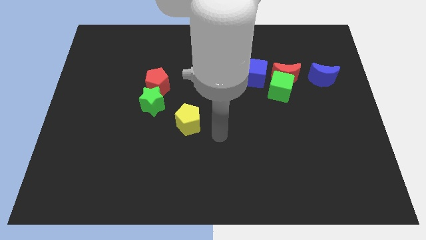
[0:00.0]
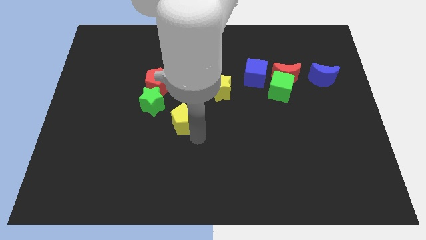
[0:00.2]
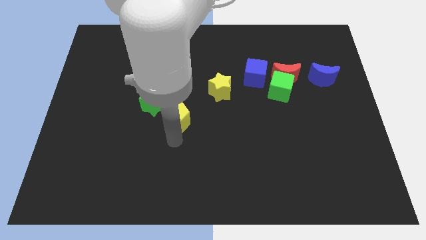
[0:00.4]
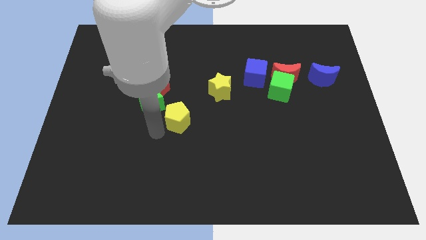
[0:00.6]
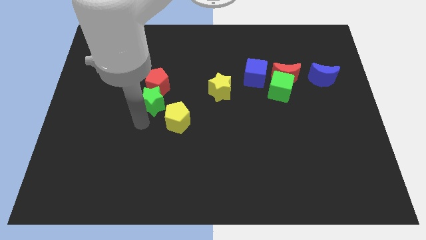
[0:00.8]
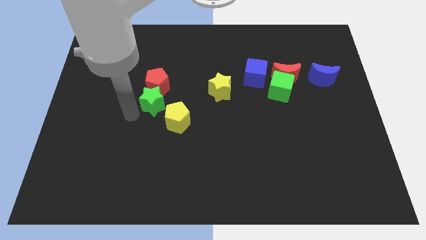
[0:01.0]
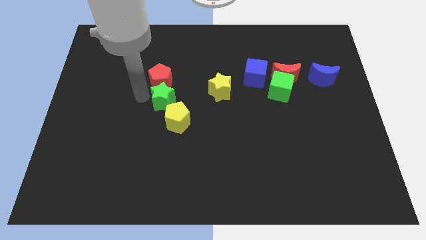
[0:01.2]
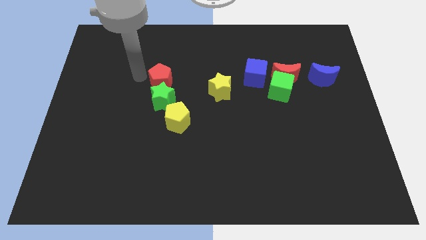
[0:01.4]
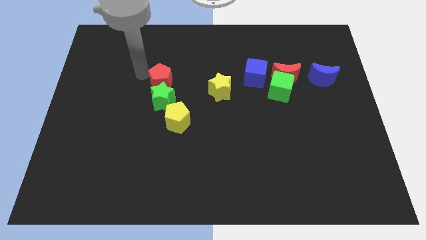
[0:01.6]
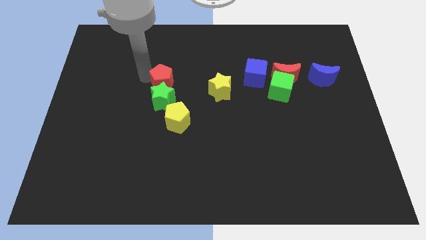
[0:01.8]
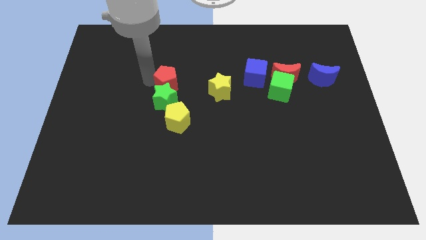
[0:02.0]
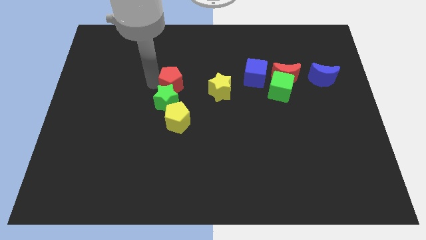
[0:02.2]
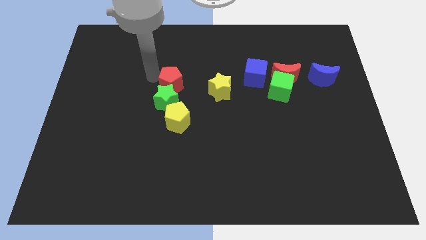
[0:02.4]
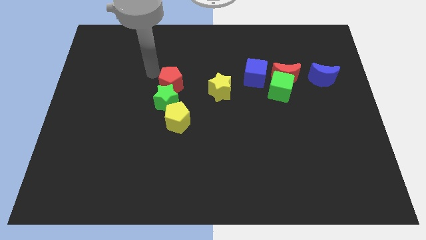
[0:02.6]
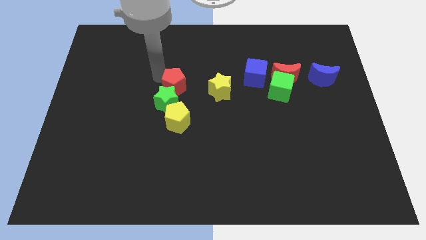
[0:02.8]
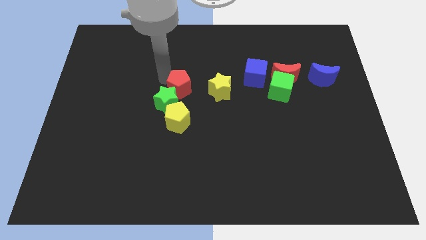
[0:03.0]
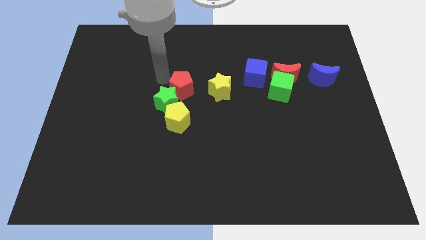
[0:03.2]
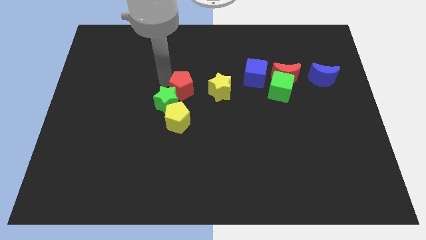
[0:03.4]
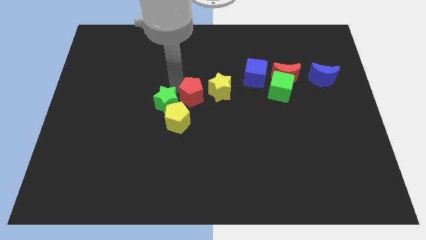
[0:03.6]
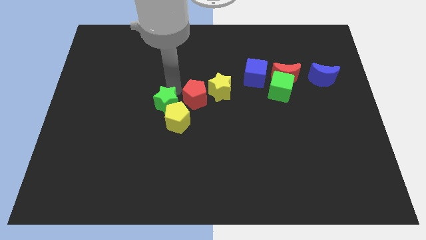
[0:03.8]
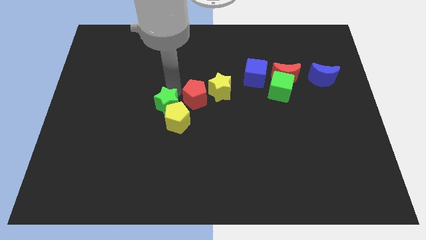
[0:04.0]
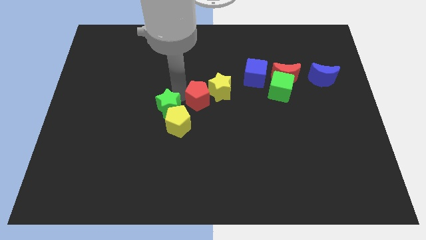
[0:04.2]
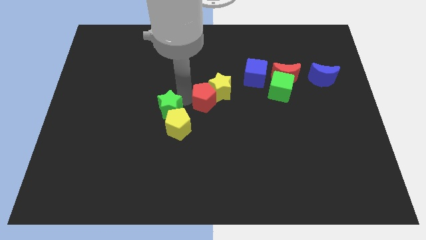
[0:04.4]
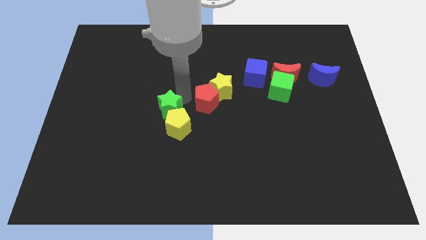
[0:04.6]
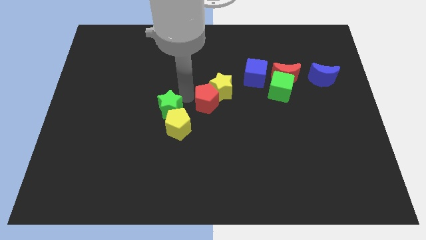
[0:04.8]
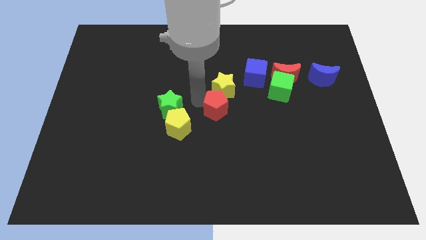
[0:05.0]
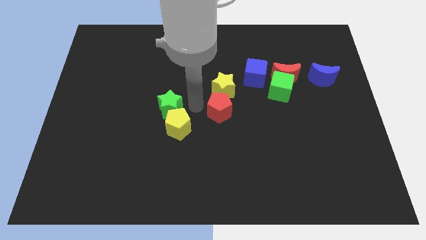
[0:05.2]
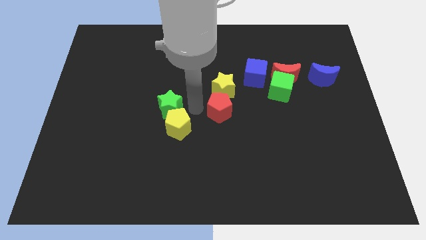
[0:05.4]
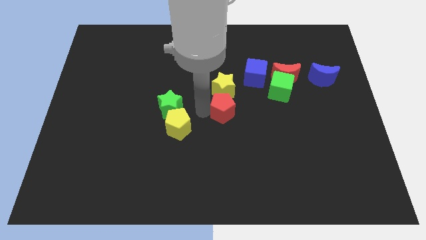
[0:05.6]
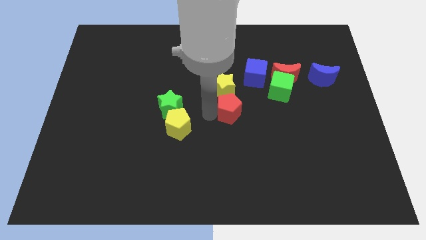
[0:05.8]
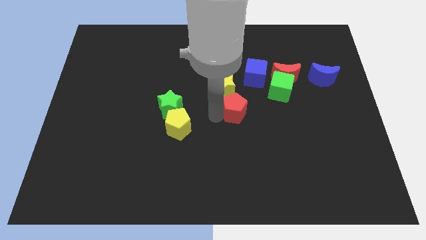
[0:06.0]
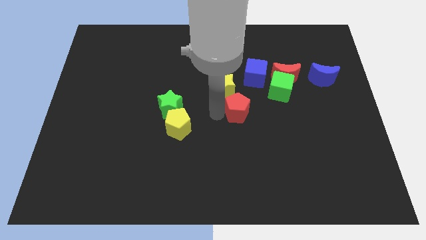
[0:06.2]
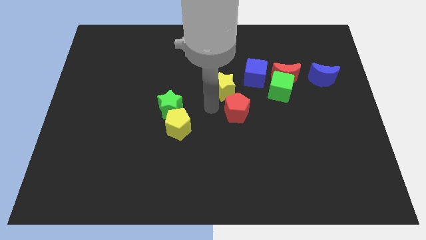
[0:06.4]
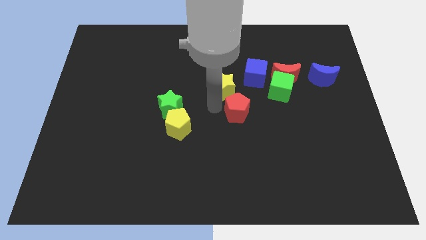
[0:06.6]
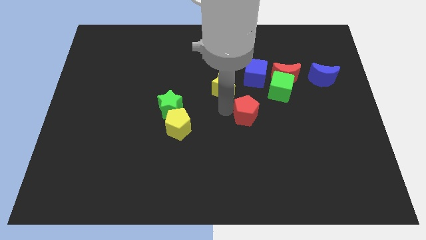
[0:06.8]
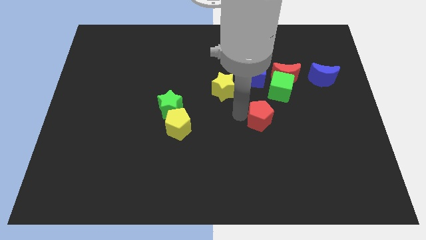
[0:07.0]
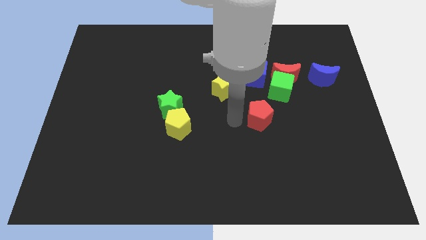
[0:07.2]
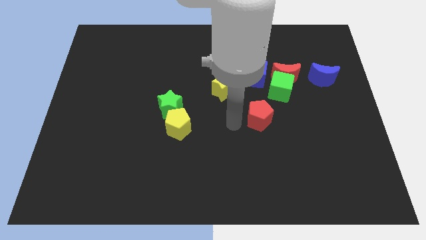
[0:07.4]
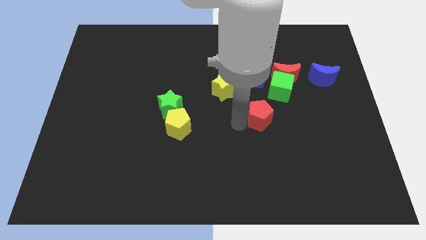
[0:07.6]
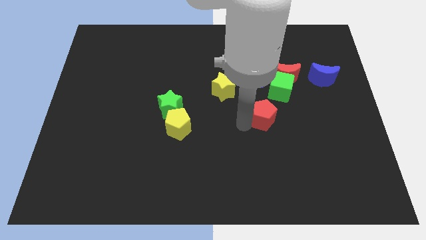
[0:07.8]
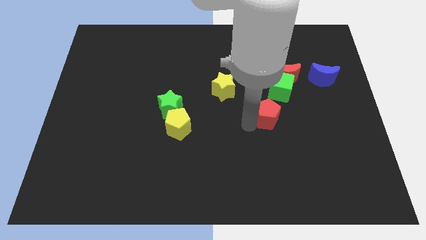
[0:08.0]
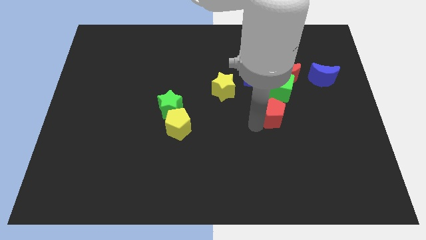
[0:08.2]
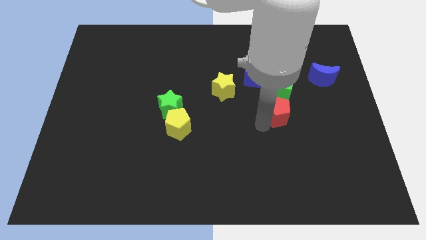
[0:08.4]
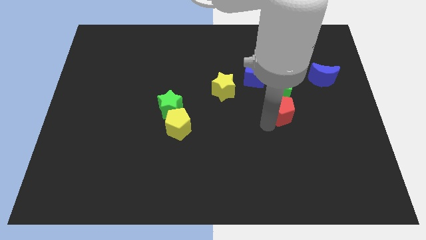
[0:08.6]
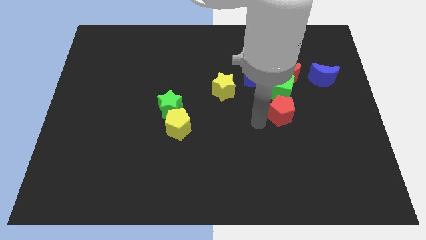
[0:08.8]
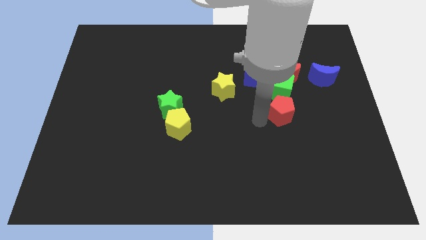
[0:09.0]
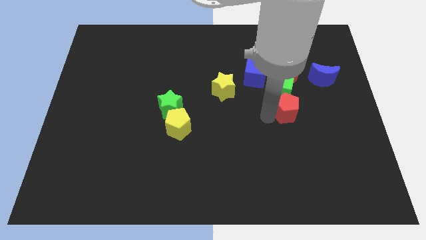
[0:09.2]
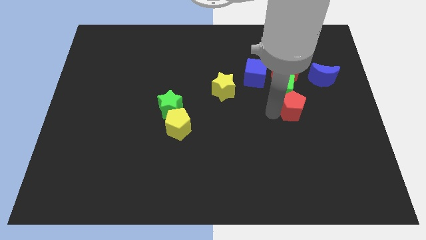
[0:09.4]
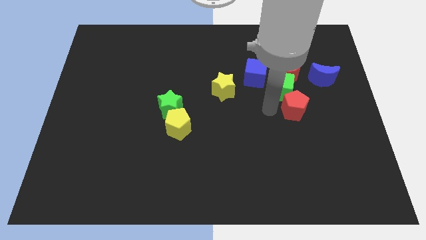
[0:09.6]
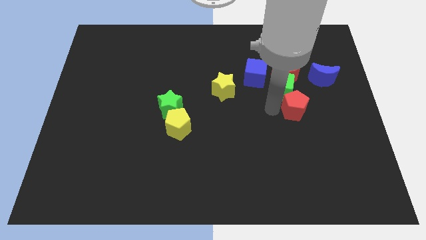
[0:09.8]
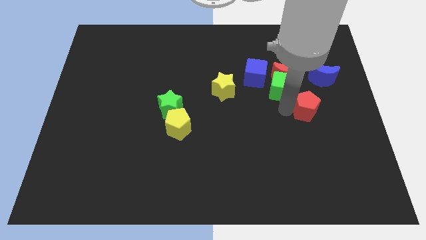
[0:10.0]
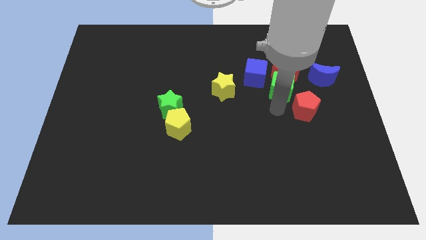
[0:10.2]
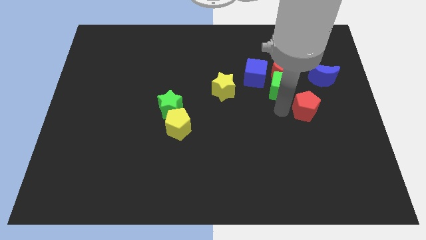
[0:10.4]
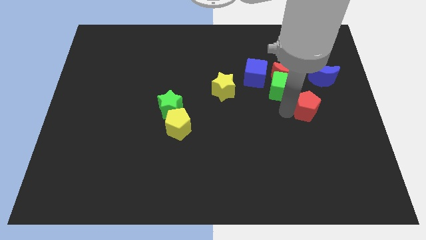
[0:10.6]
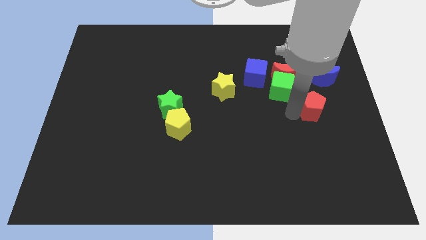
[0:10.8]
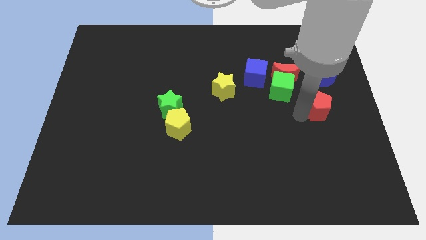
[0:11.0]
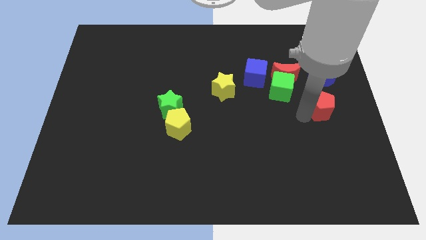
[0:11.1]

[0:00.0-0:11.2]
move the red pentagon to the right side

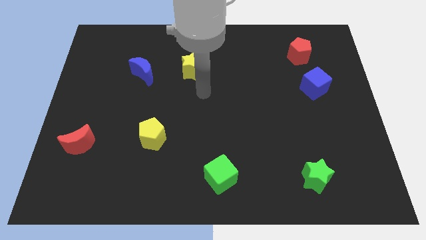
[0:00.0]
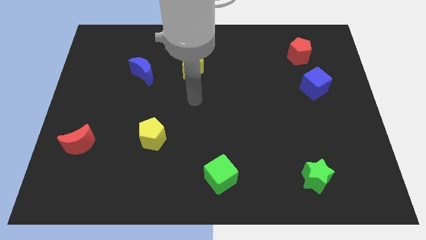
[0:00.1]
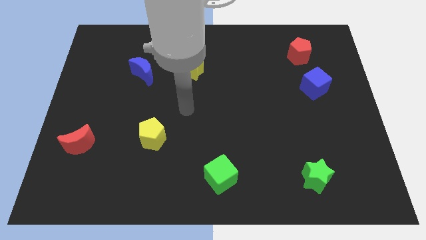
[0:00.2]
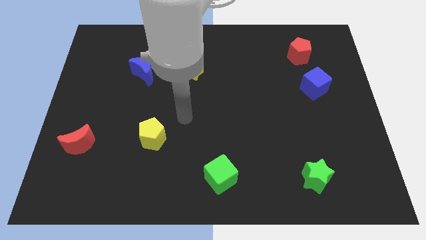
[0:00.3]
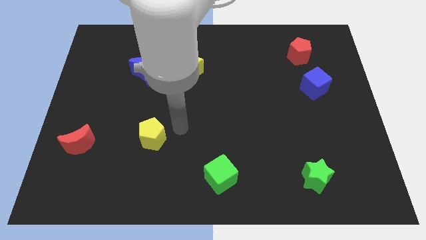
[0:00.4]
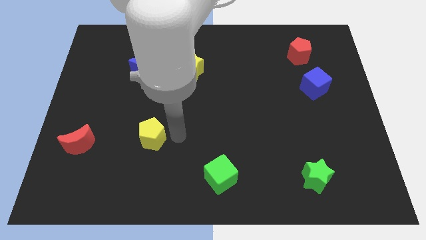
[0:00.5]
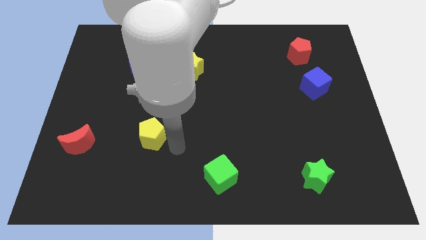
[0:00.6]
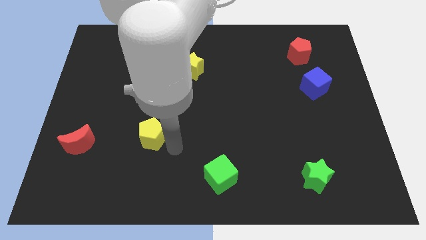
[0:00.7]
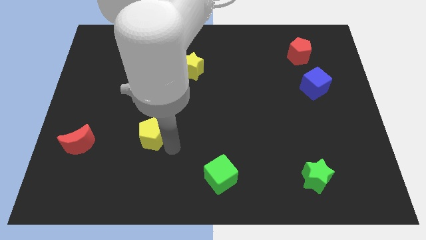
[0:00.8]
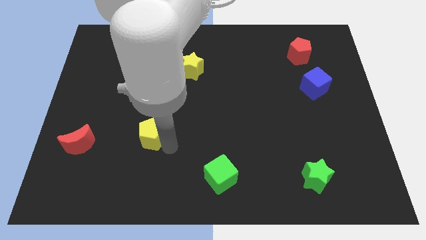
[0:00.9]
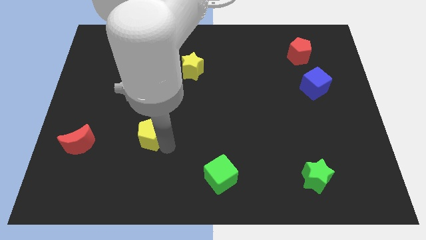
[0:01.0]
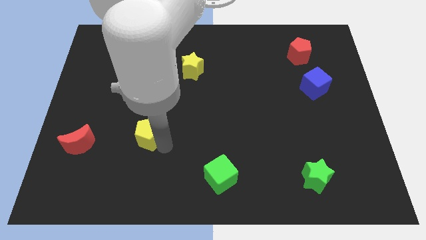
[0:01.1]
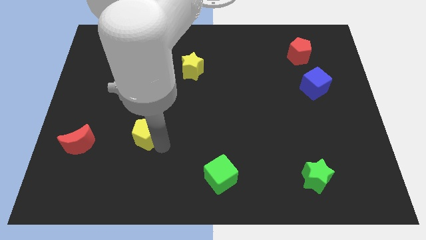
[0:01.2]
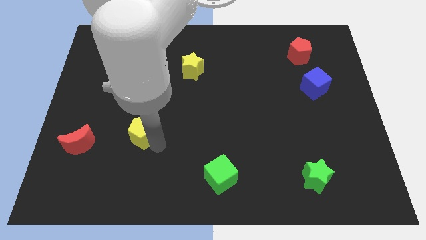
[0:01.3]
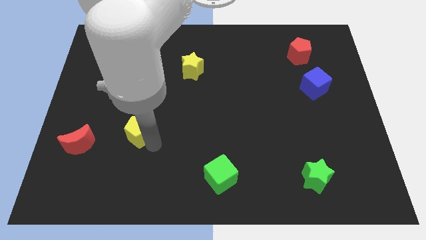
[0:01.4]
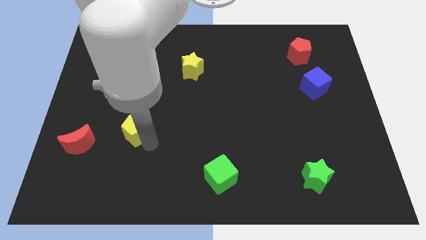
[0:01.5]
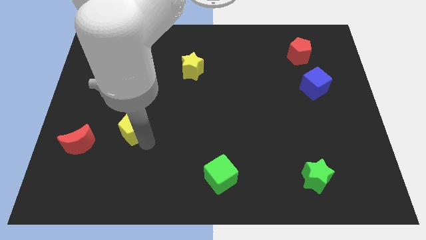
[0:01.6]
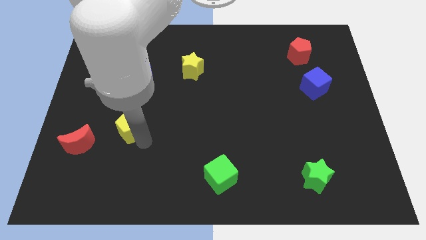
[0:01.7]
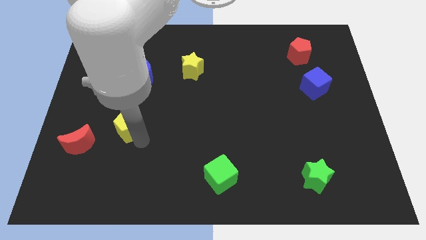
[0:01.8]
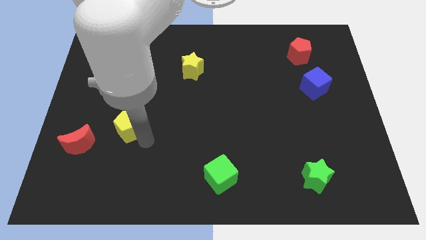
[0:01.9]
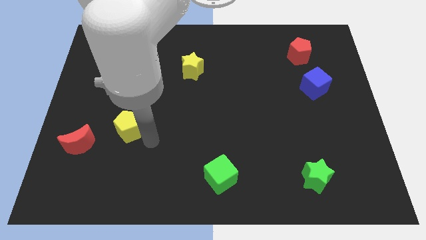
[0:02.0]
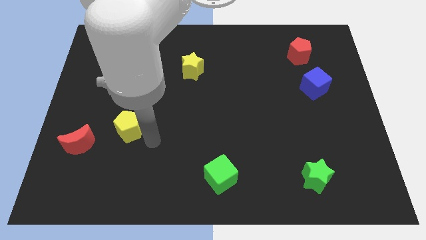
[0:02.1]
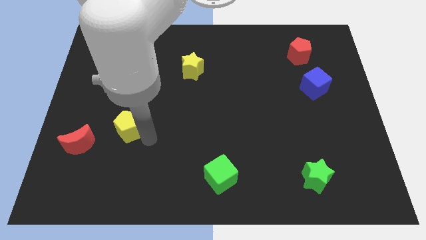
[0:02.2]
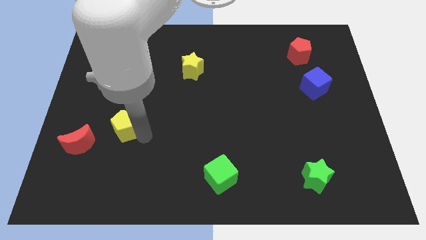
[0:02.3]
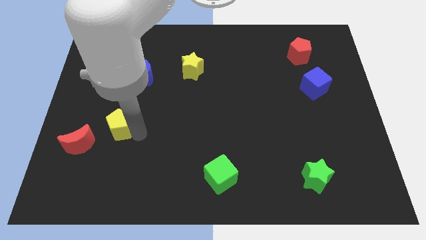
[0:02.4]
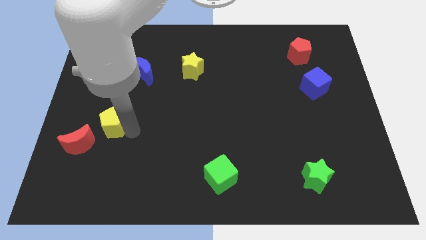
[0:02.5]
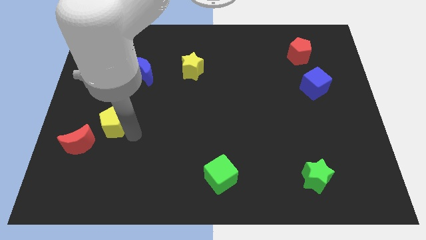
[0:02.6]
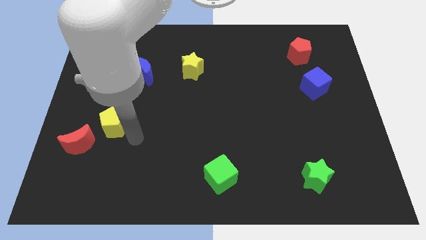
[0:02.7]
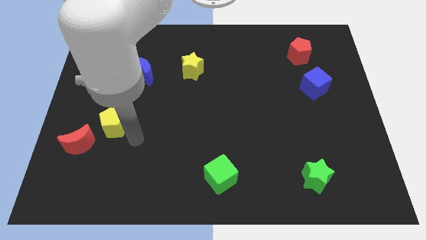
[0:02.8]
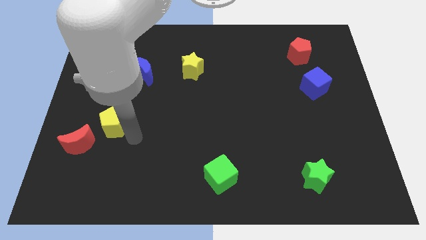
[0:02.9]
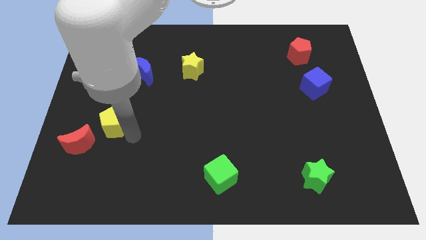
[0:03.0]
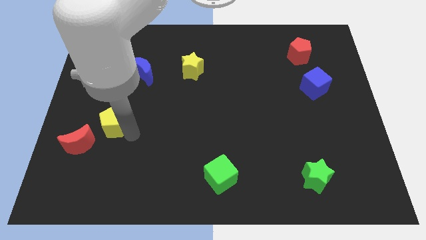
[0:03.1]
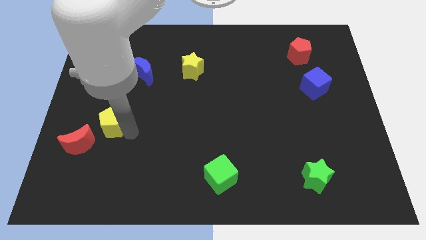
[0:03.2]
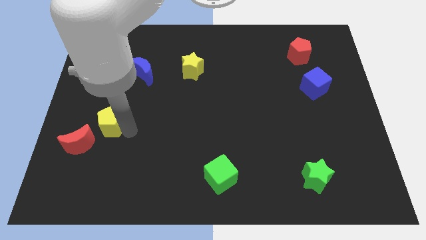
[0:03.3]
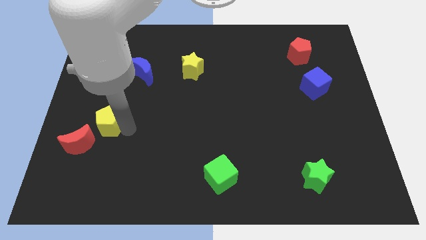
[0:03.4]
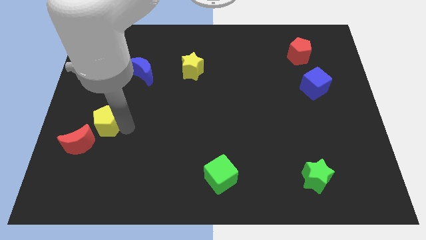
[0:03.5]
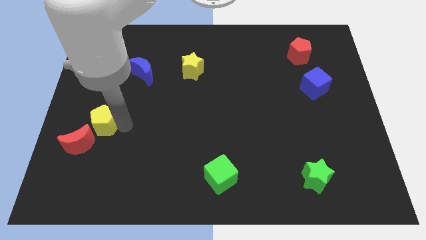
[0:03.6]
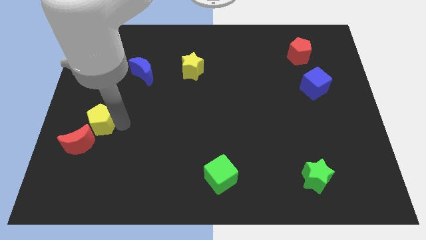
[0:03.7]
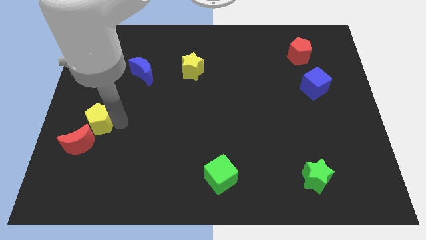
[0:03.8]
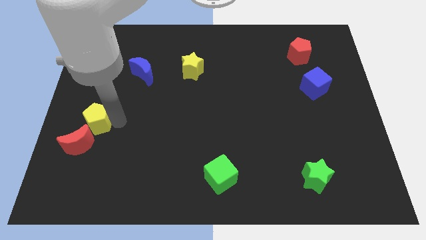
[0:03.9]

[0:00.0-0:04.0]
slide the yellow pentagon to the left side
